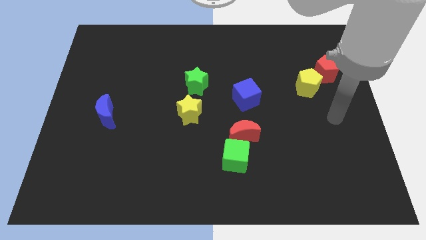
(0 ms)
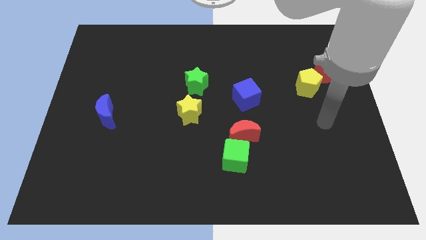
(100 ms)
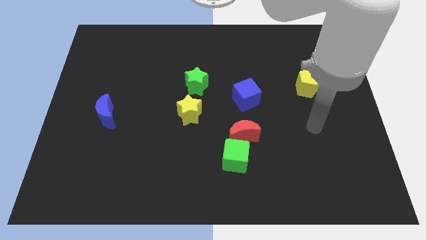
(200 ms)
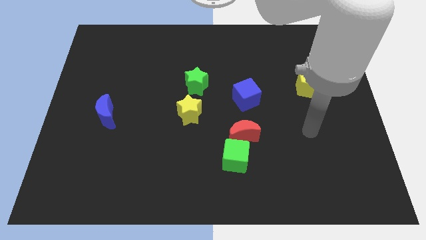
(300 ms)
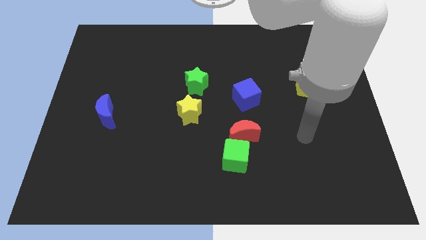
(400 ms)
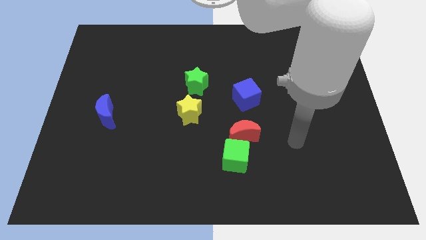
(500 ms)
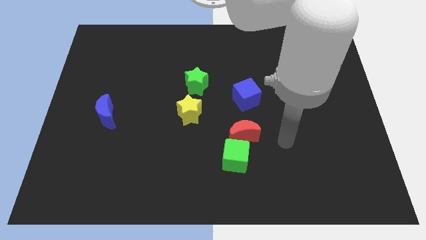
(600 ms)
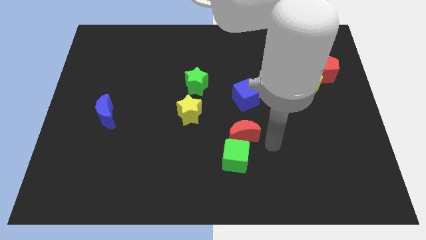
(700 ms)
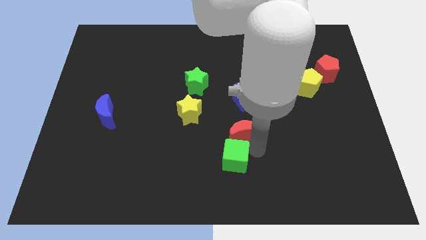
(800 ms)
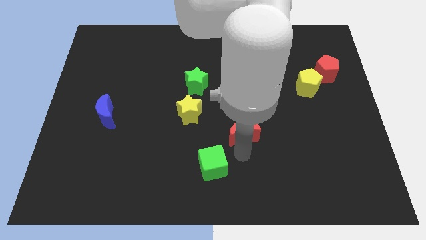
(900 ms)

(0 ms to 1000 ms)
pull the red moon apart from the green cube

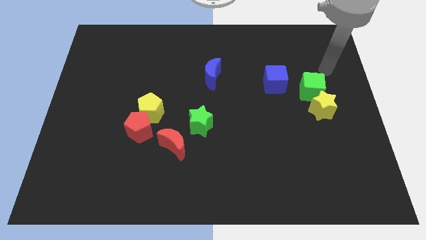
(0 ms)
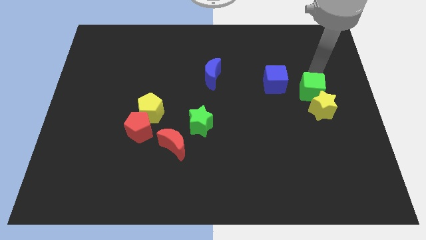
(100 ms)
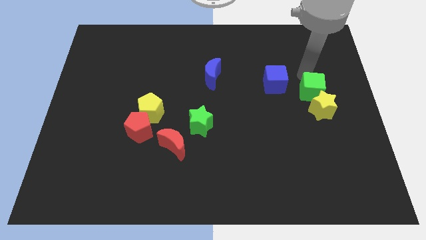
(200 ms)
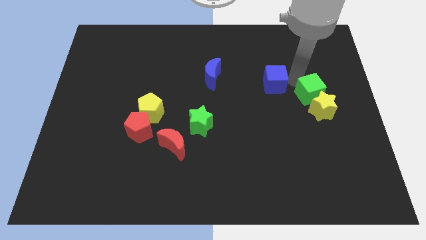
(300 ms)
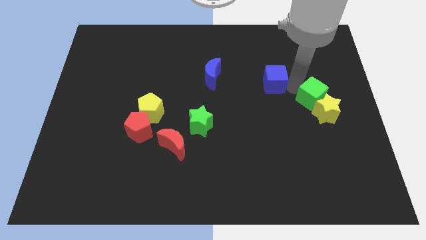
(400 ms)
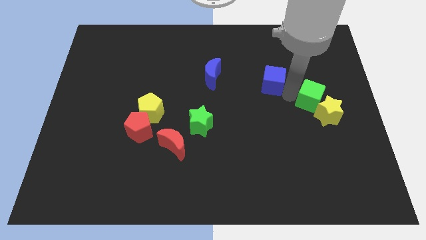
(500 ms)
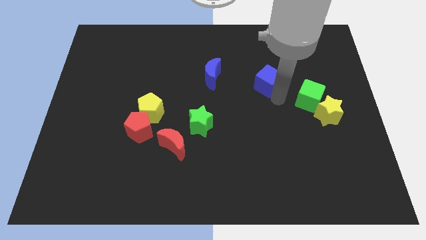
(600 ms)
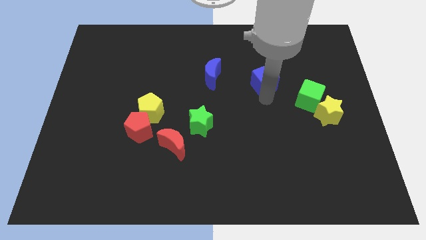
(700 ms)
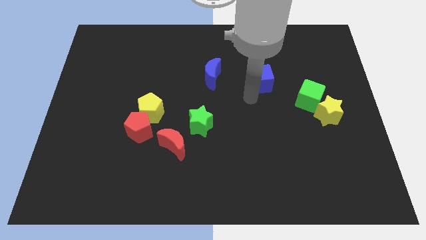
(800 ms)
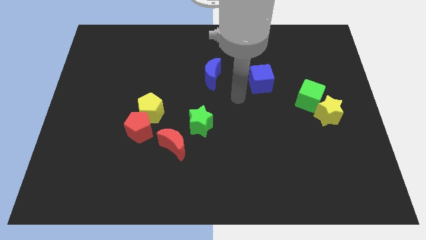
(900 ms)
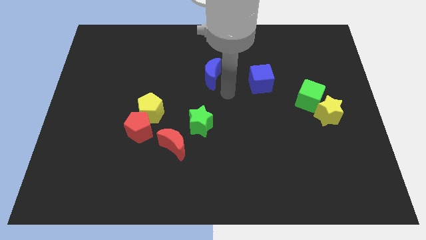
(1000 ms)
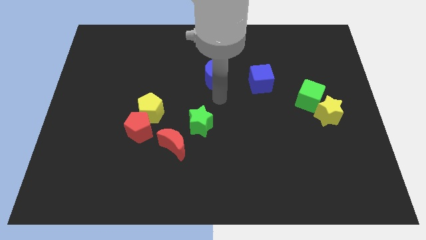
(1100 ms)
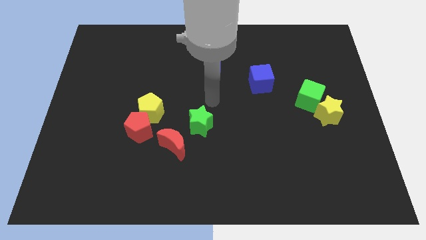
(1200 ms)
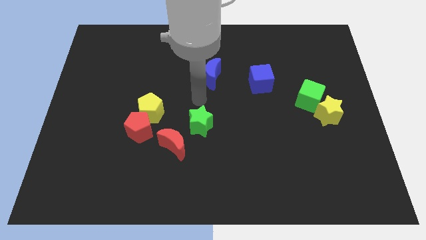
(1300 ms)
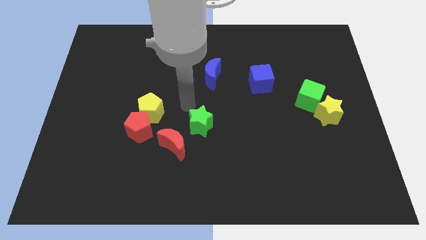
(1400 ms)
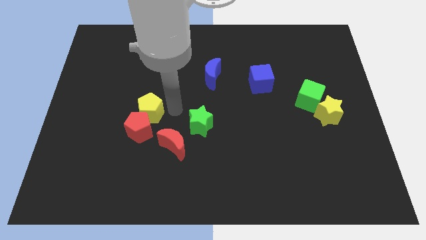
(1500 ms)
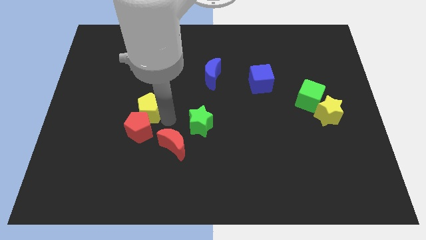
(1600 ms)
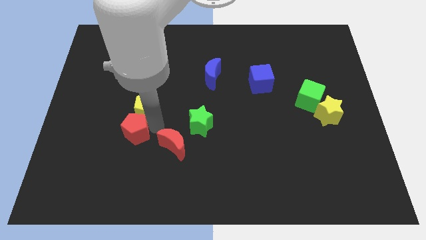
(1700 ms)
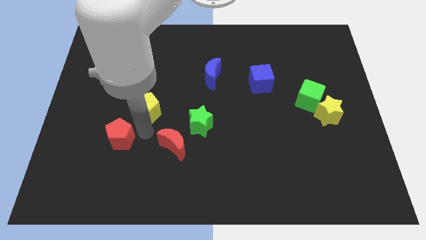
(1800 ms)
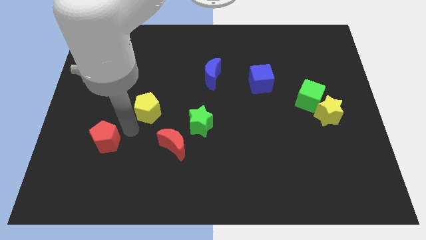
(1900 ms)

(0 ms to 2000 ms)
move the yellow pentagon away from the red pentagon

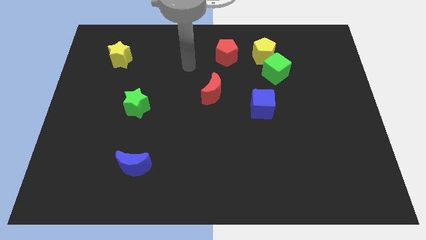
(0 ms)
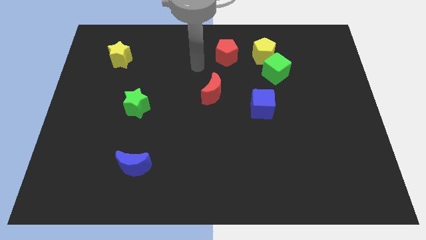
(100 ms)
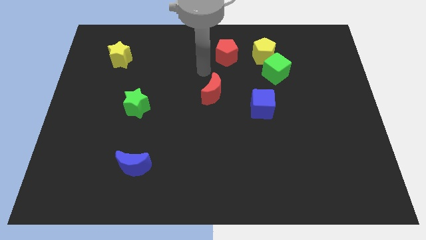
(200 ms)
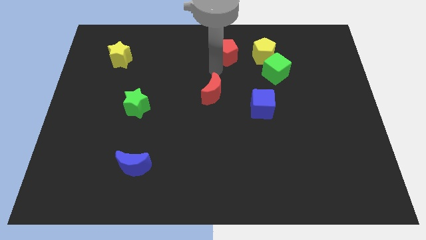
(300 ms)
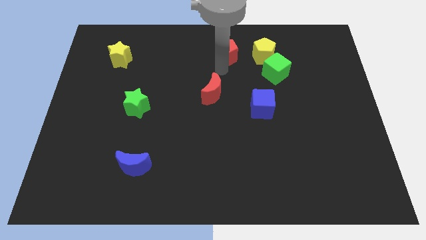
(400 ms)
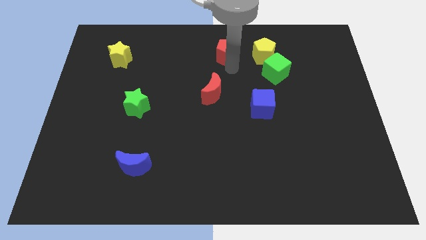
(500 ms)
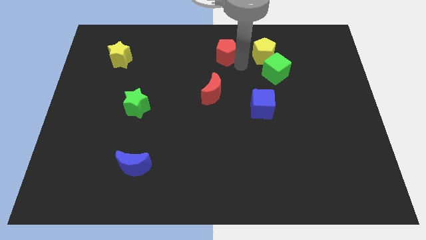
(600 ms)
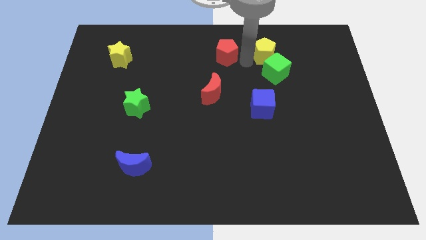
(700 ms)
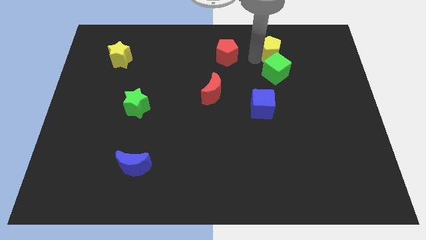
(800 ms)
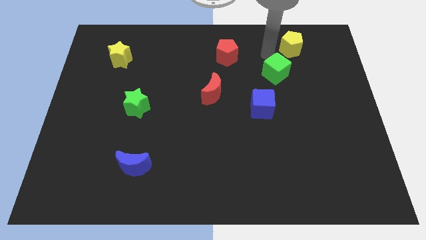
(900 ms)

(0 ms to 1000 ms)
move the green cube away from the yellow pentagon

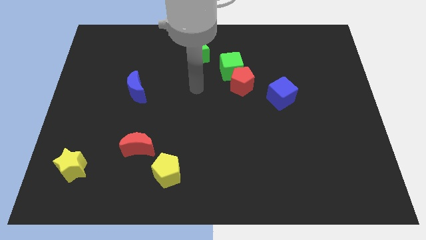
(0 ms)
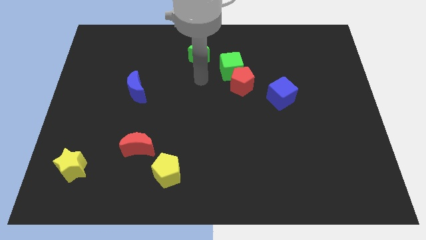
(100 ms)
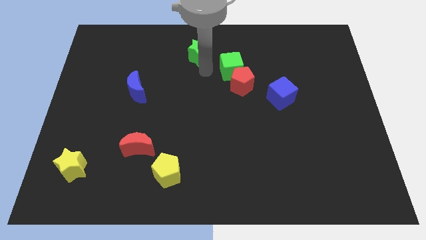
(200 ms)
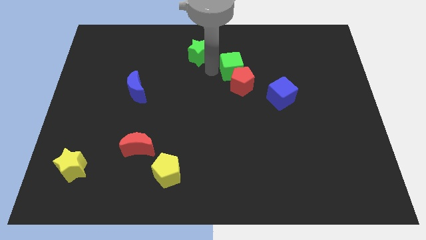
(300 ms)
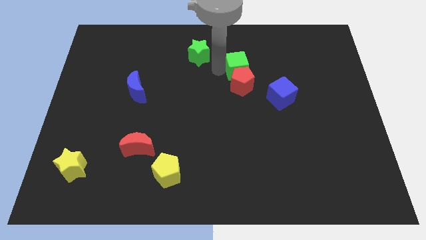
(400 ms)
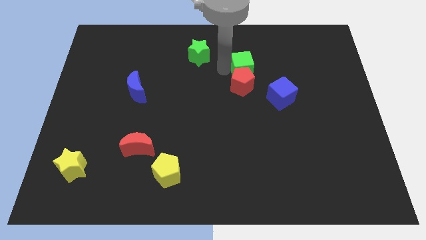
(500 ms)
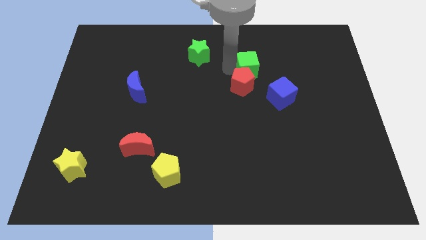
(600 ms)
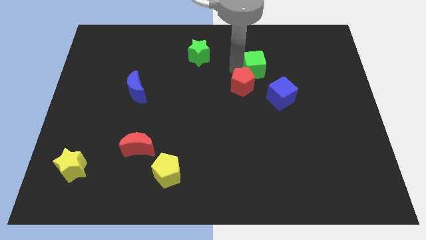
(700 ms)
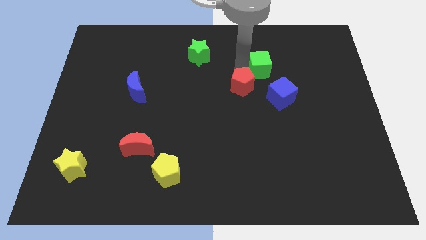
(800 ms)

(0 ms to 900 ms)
separate the green cube from the red pentagon and green star

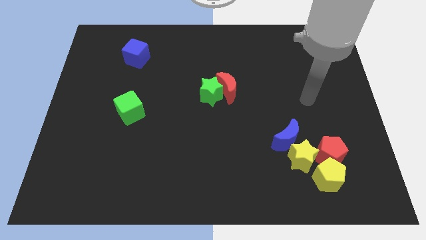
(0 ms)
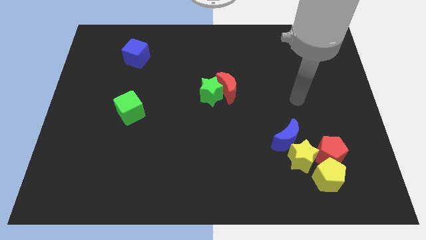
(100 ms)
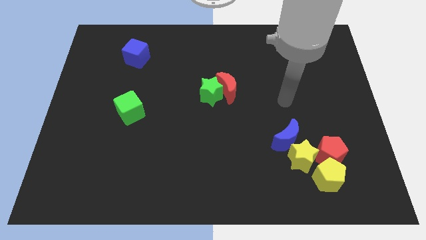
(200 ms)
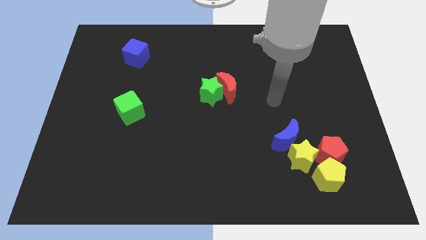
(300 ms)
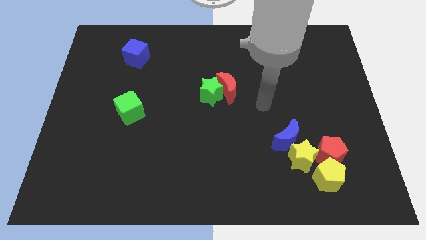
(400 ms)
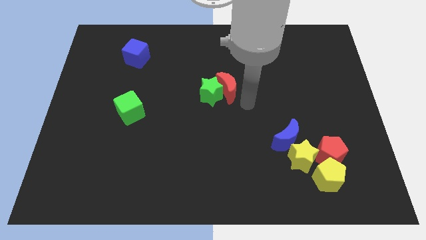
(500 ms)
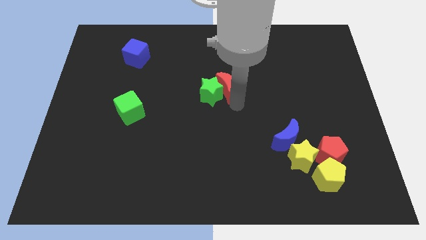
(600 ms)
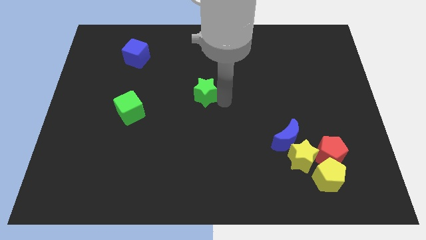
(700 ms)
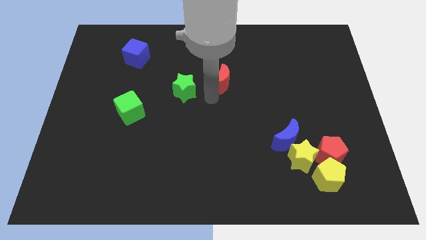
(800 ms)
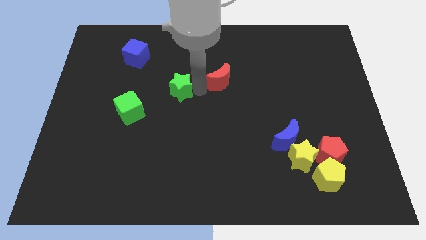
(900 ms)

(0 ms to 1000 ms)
separate the red moon from the green star

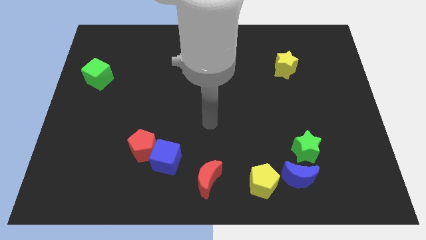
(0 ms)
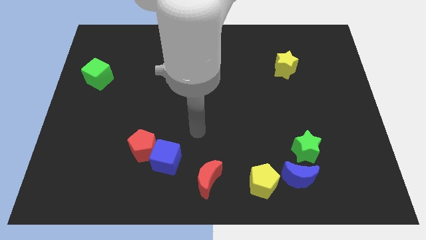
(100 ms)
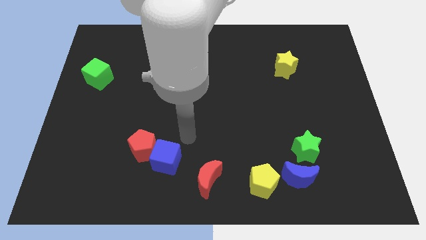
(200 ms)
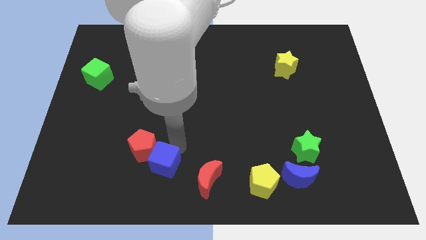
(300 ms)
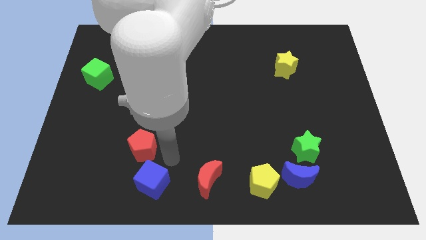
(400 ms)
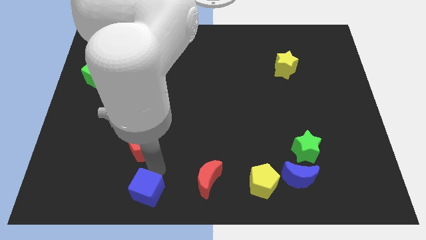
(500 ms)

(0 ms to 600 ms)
separate the red pentagon from the blue cube

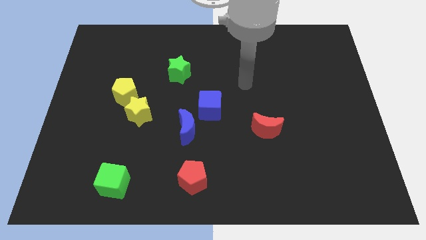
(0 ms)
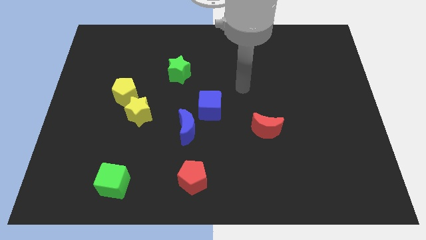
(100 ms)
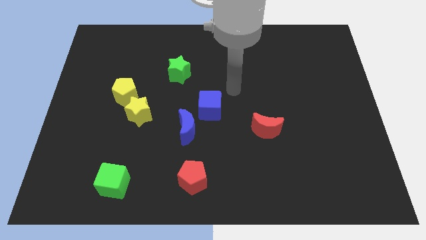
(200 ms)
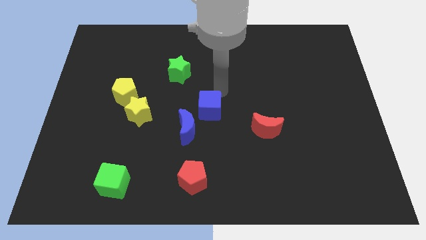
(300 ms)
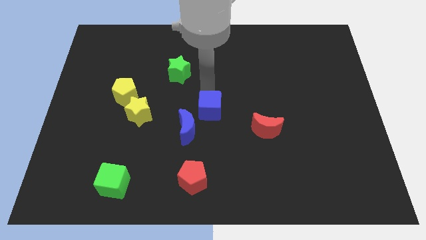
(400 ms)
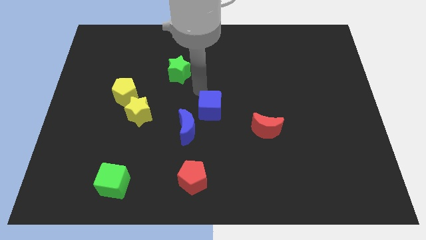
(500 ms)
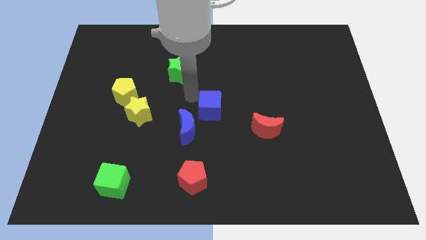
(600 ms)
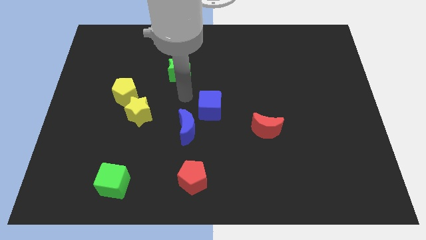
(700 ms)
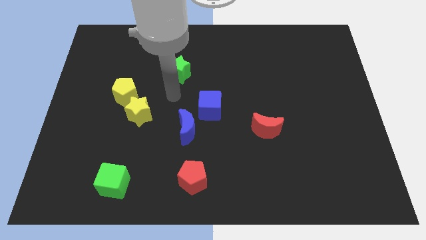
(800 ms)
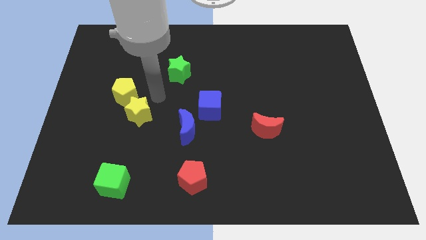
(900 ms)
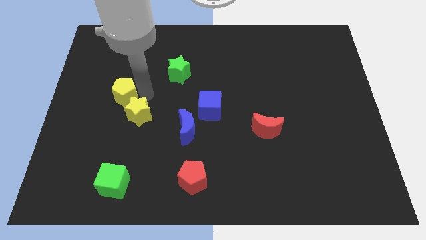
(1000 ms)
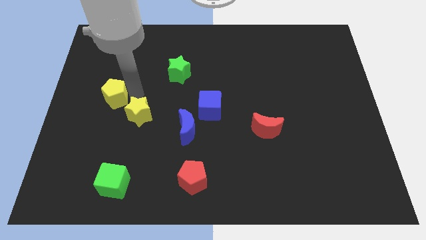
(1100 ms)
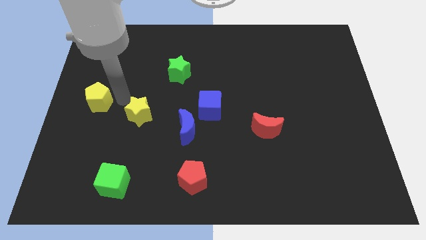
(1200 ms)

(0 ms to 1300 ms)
separate the yellow star from the yellow pentagon

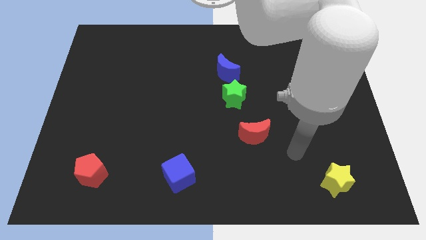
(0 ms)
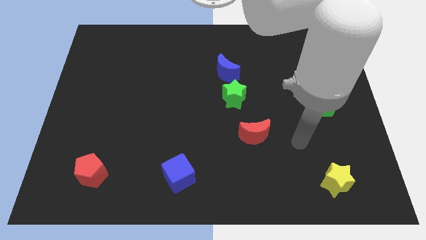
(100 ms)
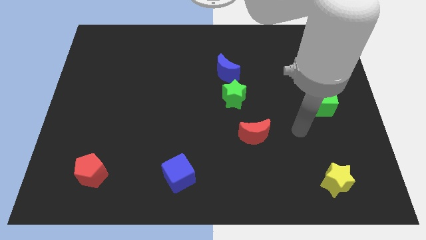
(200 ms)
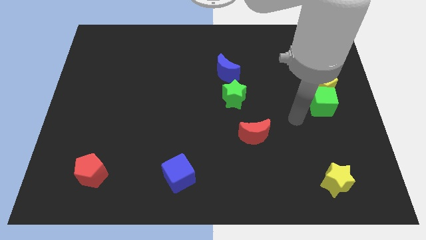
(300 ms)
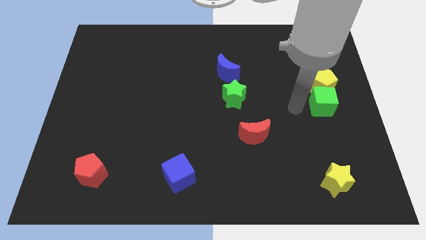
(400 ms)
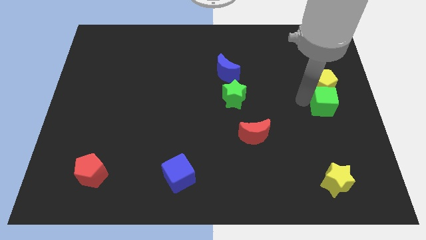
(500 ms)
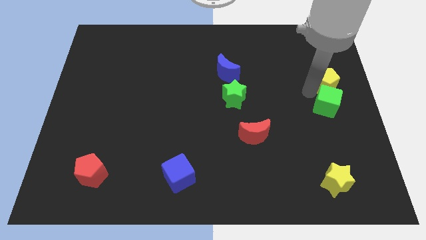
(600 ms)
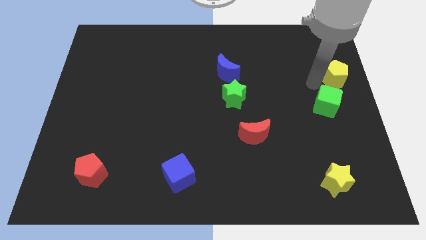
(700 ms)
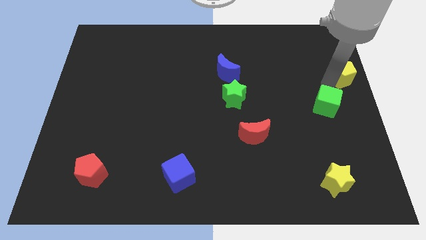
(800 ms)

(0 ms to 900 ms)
pull the green cube apart from the yellow pentagon

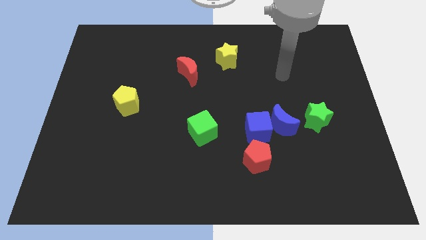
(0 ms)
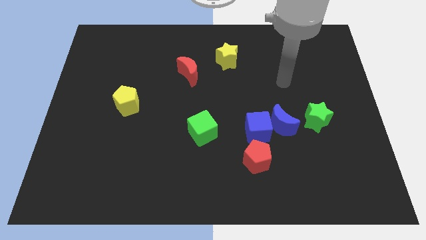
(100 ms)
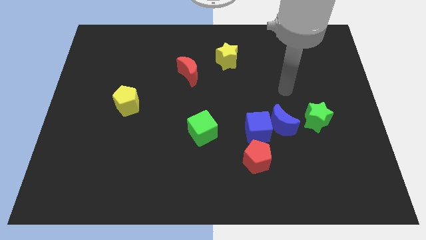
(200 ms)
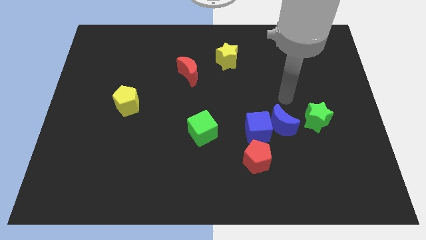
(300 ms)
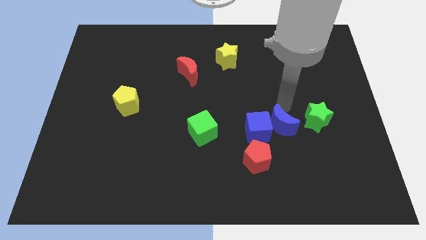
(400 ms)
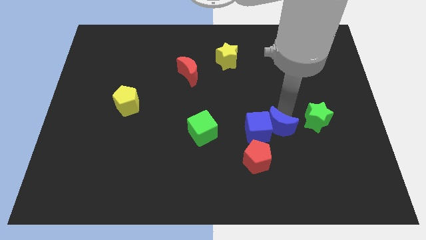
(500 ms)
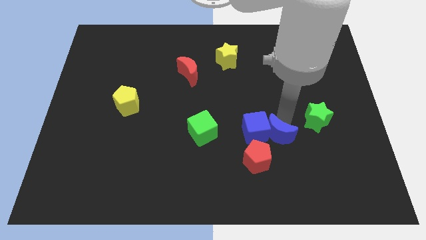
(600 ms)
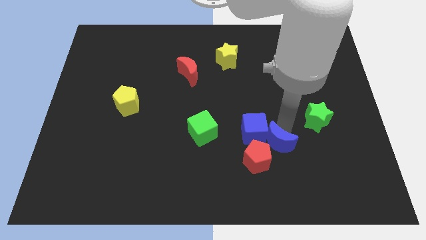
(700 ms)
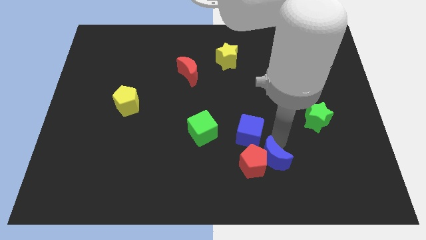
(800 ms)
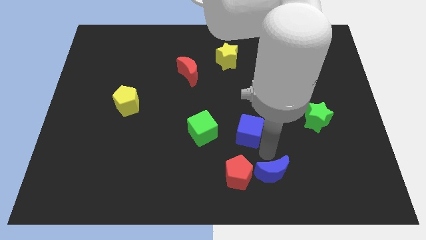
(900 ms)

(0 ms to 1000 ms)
separate the blue cube from the blue moon and red pentagon
